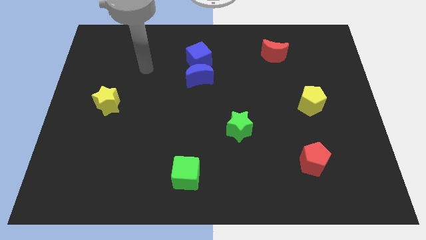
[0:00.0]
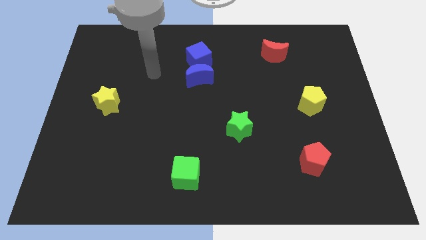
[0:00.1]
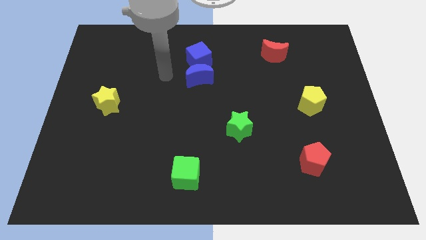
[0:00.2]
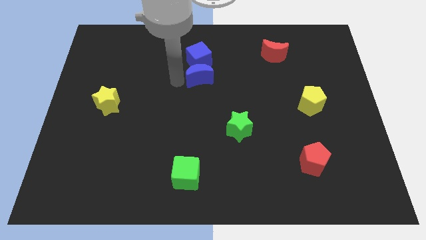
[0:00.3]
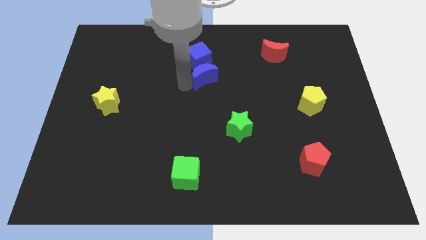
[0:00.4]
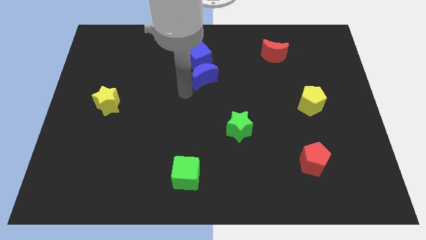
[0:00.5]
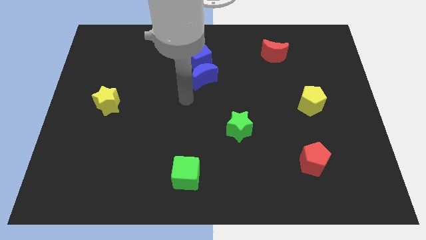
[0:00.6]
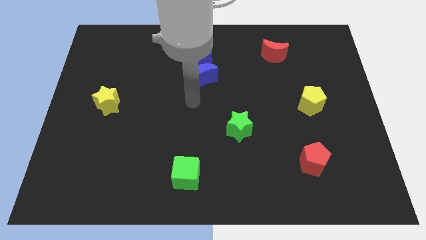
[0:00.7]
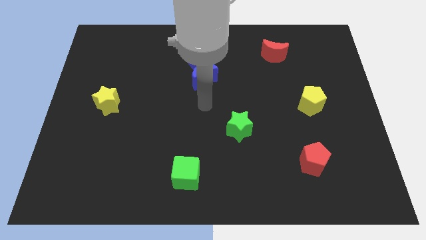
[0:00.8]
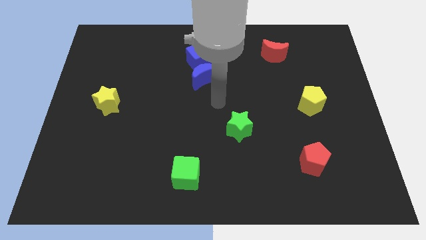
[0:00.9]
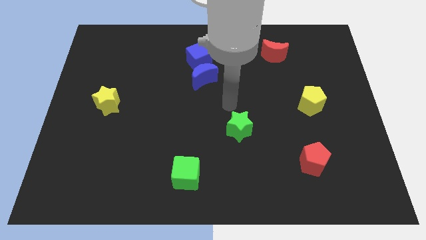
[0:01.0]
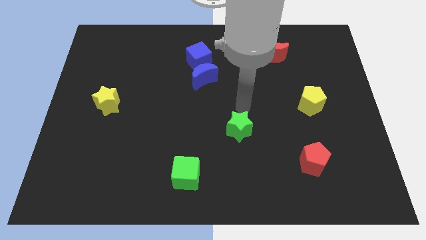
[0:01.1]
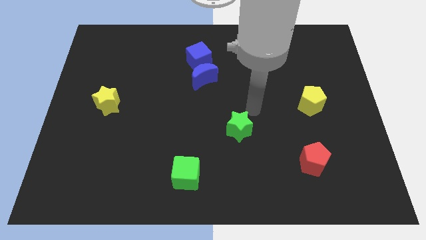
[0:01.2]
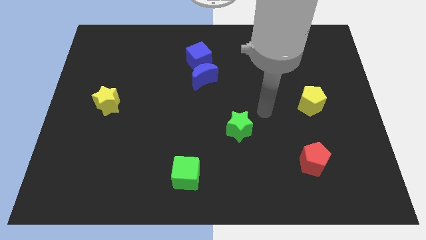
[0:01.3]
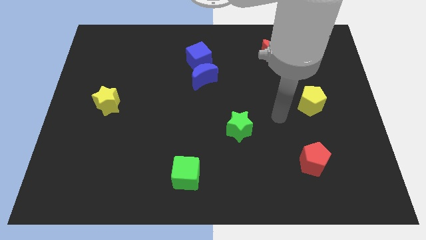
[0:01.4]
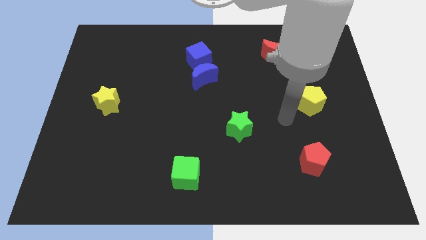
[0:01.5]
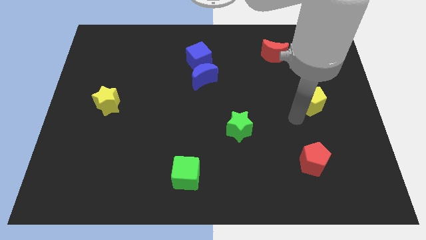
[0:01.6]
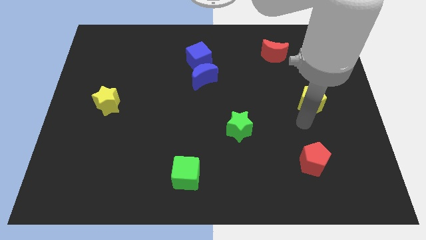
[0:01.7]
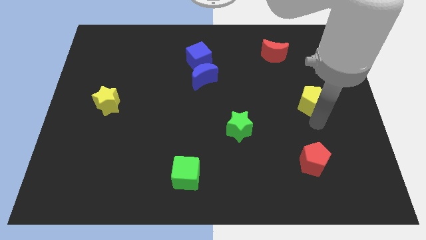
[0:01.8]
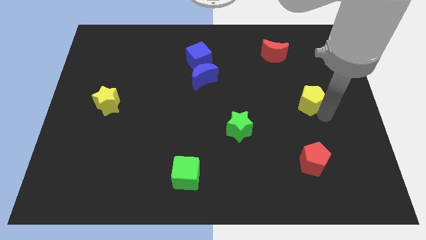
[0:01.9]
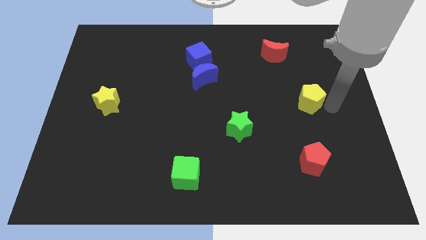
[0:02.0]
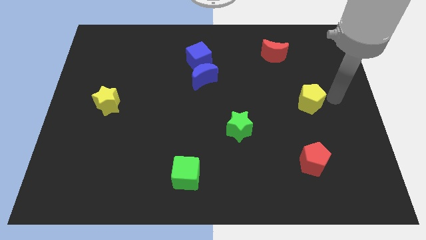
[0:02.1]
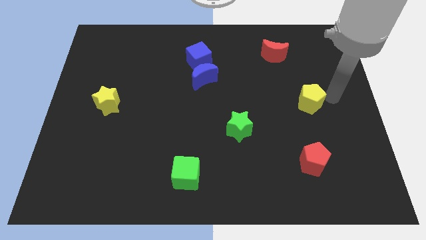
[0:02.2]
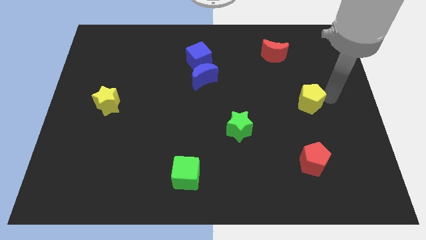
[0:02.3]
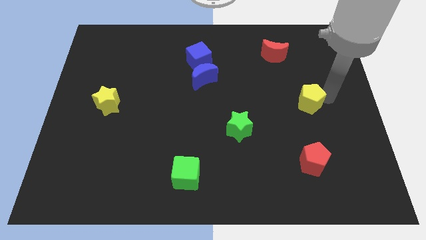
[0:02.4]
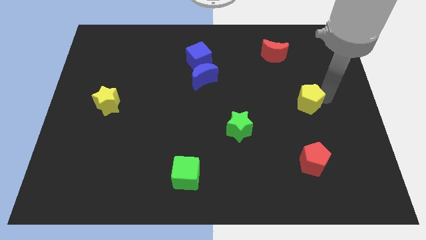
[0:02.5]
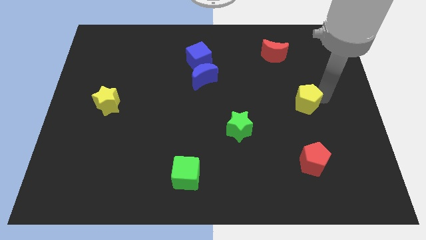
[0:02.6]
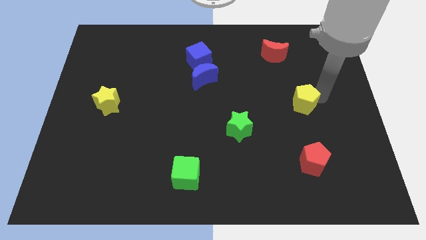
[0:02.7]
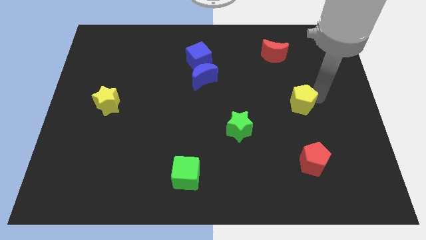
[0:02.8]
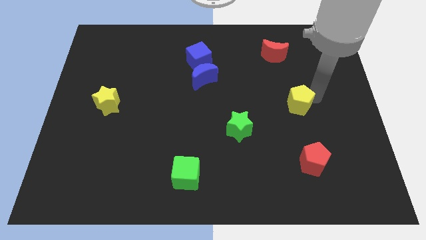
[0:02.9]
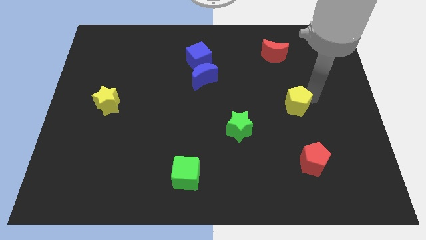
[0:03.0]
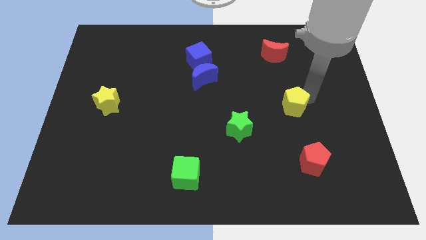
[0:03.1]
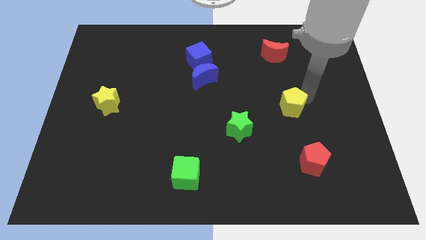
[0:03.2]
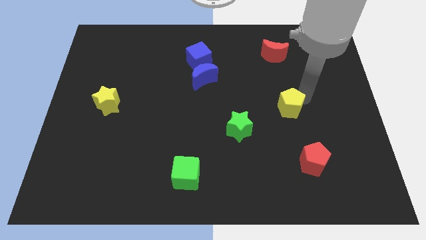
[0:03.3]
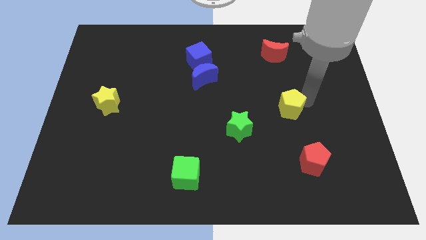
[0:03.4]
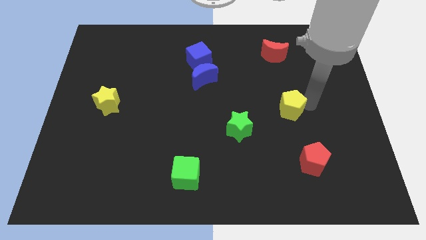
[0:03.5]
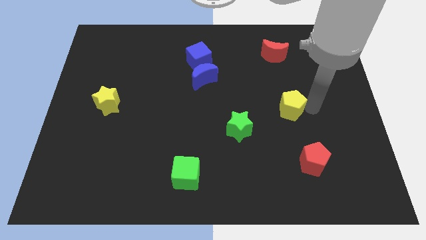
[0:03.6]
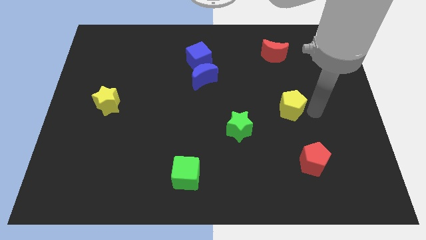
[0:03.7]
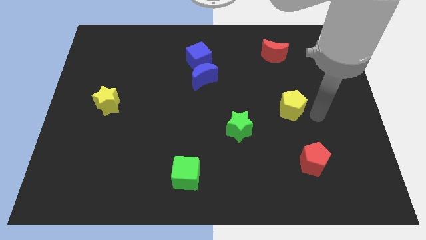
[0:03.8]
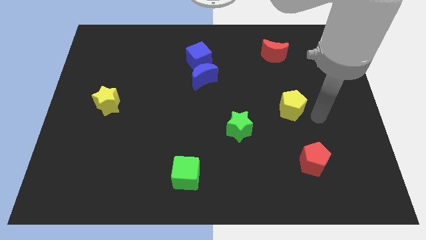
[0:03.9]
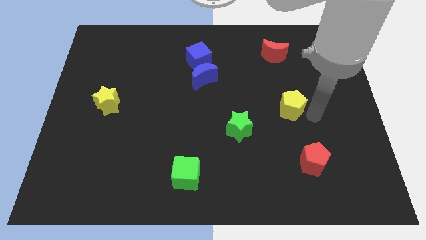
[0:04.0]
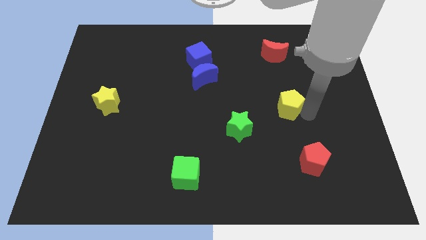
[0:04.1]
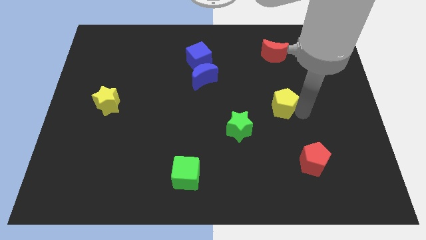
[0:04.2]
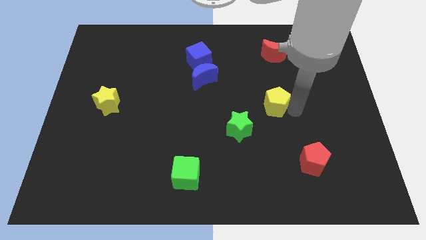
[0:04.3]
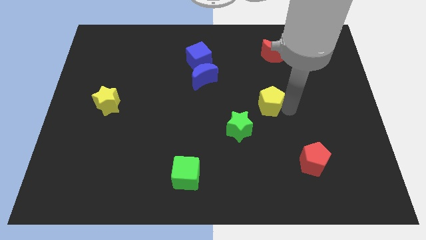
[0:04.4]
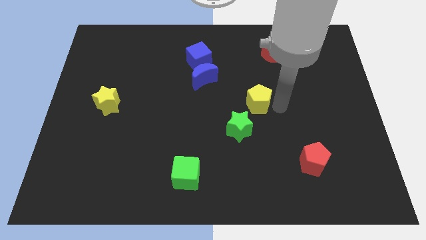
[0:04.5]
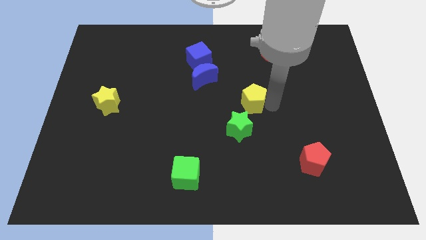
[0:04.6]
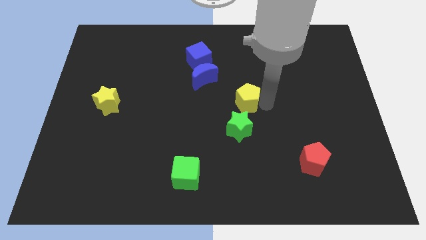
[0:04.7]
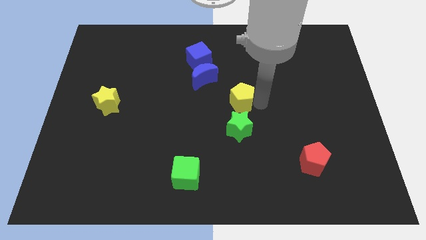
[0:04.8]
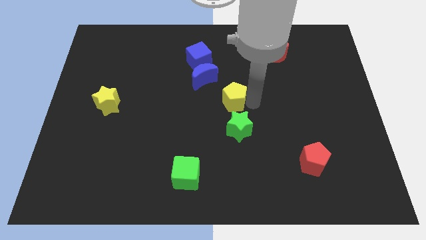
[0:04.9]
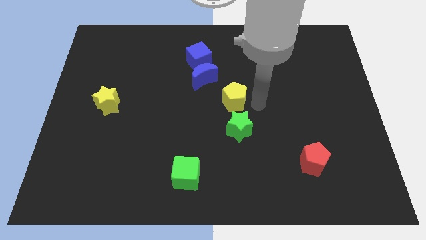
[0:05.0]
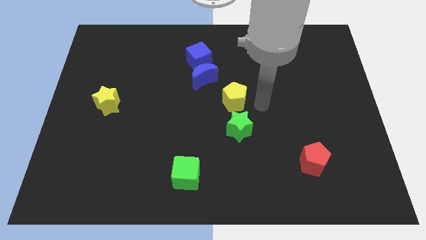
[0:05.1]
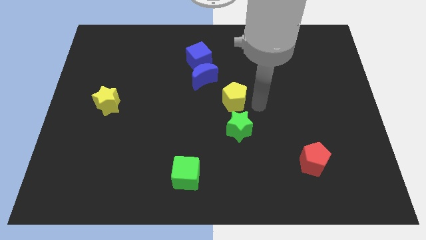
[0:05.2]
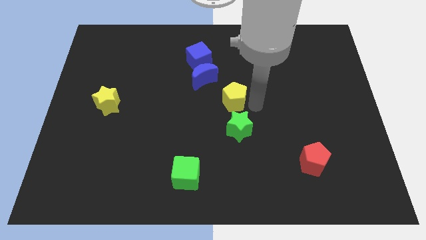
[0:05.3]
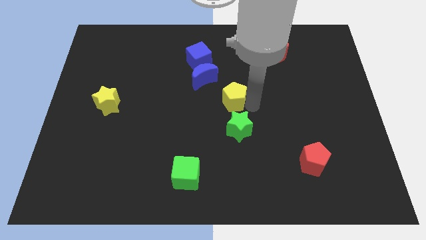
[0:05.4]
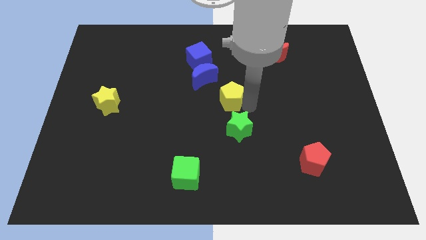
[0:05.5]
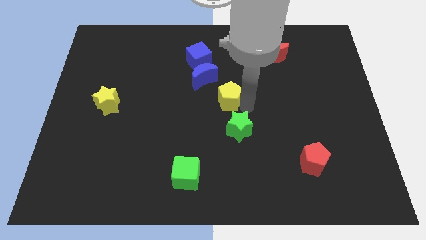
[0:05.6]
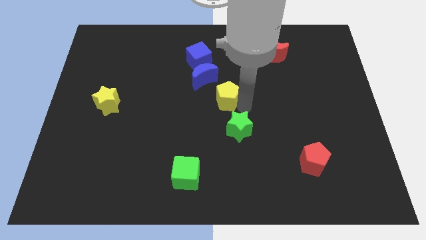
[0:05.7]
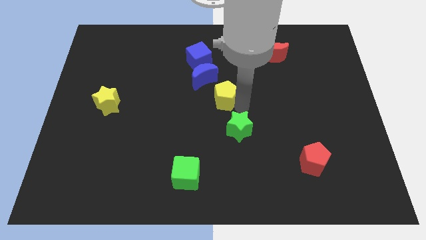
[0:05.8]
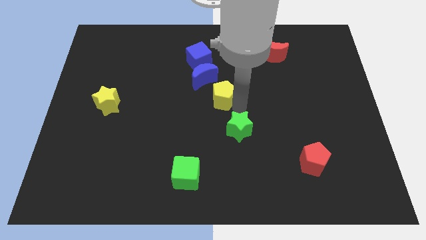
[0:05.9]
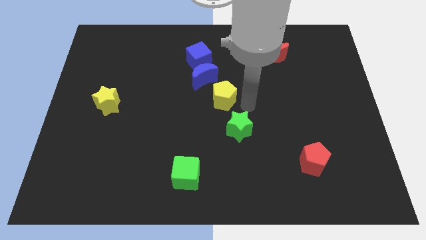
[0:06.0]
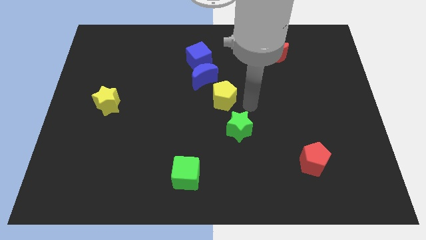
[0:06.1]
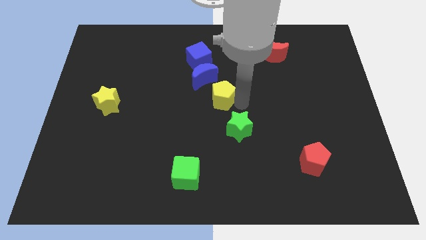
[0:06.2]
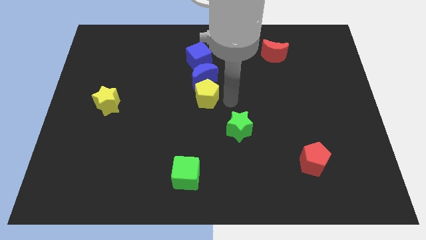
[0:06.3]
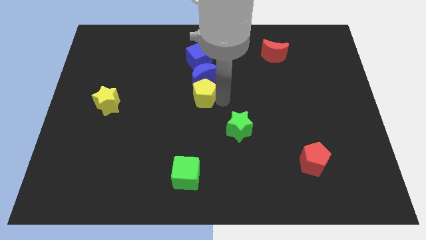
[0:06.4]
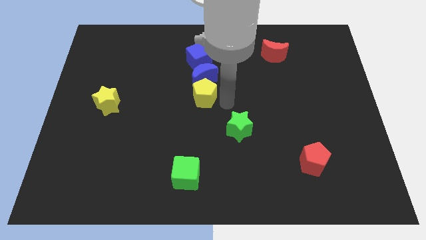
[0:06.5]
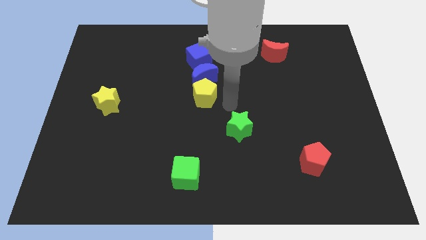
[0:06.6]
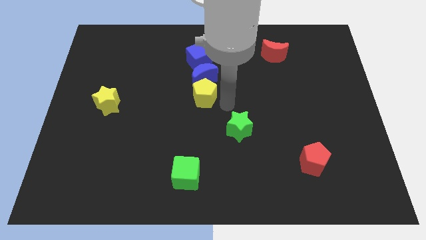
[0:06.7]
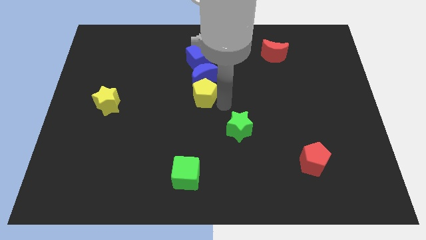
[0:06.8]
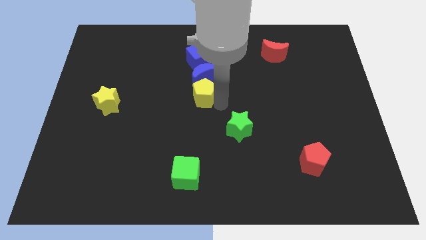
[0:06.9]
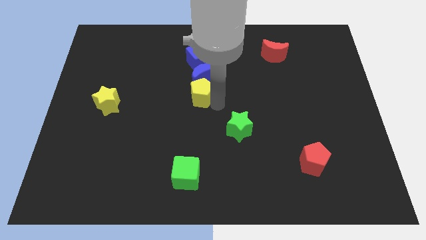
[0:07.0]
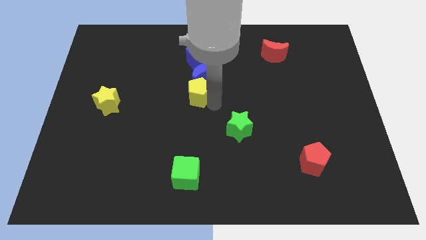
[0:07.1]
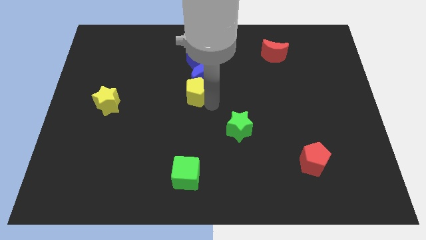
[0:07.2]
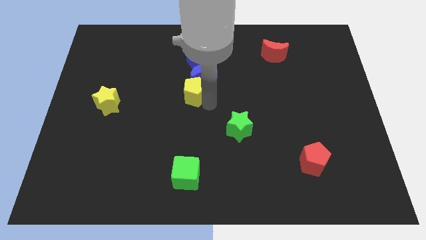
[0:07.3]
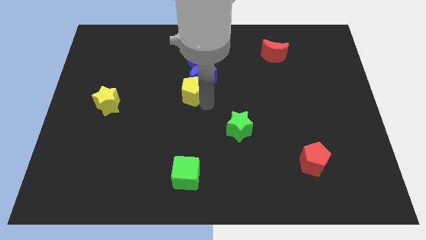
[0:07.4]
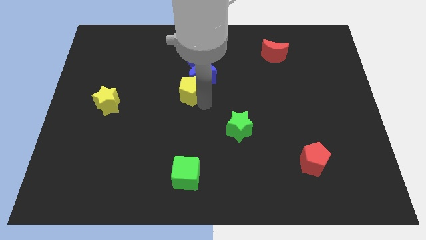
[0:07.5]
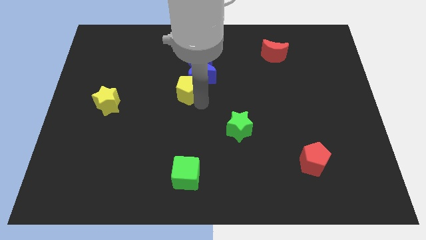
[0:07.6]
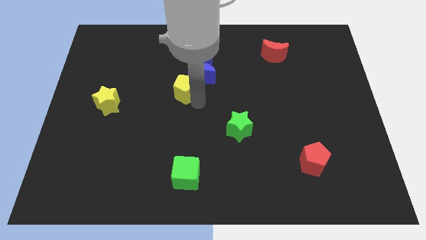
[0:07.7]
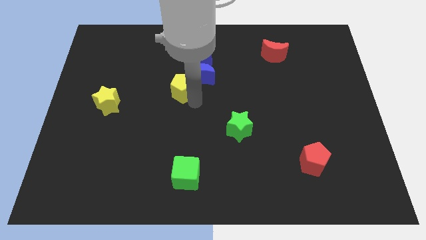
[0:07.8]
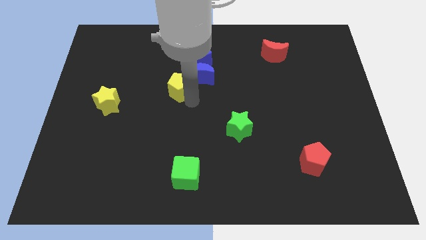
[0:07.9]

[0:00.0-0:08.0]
put the yellow pentagon to the bottom left side of the blue cube
